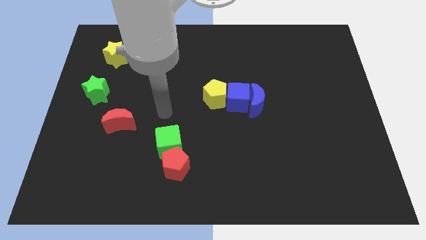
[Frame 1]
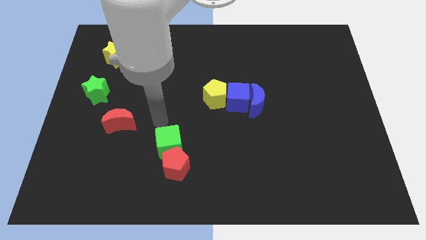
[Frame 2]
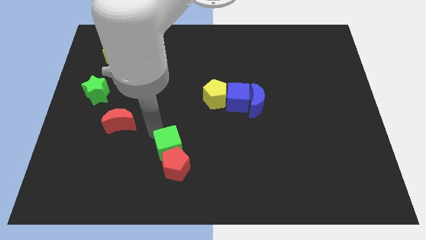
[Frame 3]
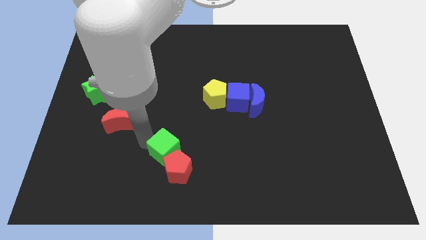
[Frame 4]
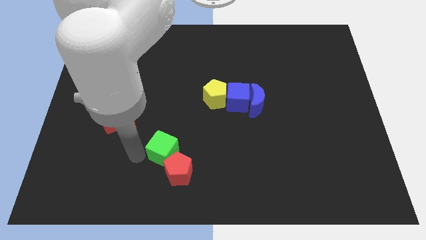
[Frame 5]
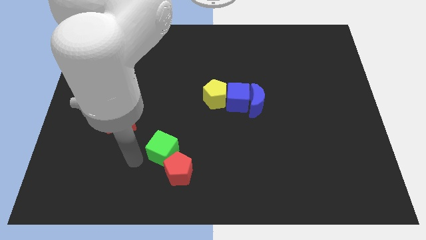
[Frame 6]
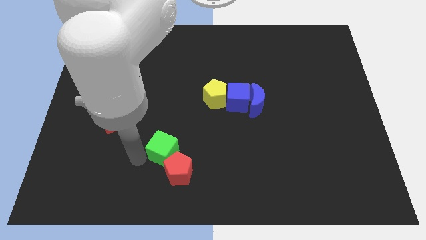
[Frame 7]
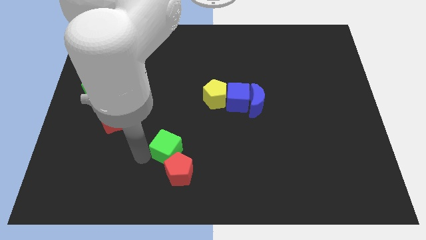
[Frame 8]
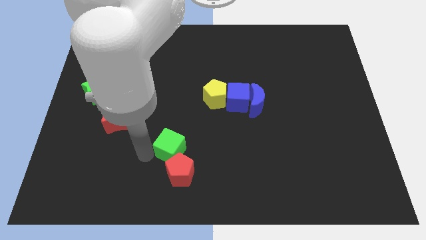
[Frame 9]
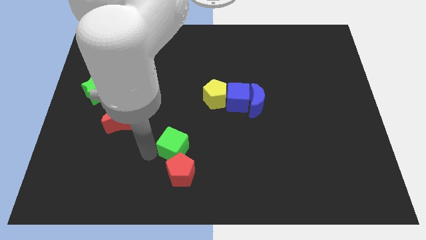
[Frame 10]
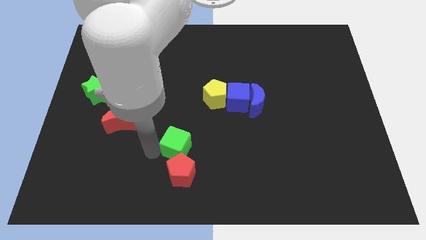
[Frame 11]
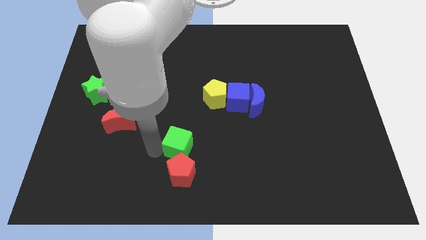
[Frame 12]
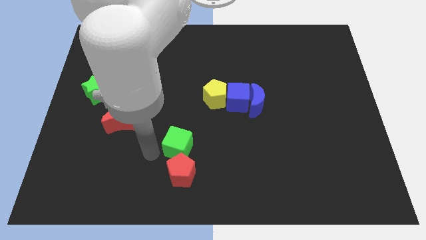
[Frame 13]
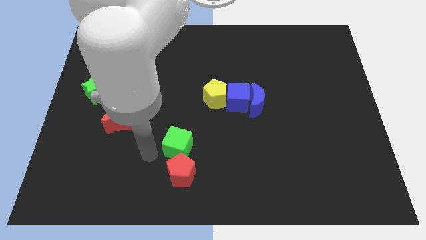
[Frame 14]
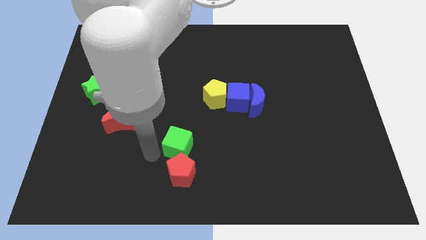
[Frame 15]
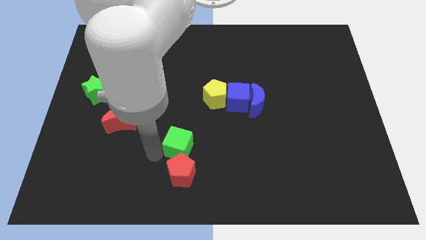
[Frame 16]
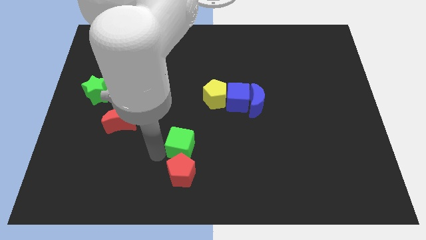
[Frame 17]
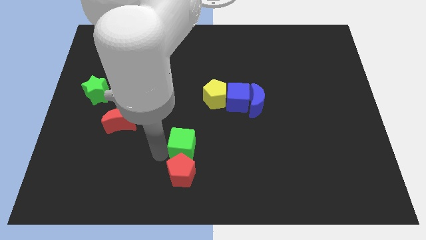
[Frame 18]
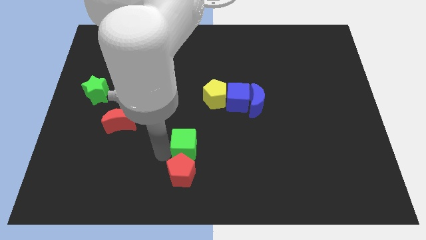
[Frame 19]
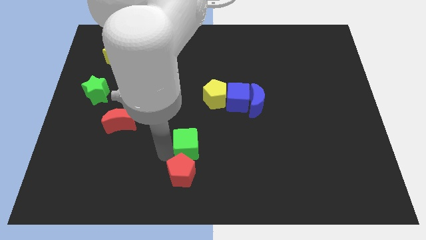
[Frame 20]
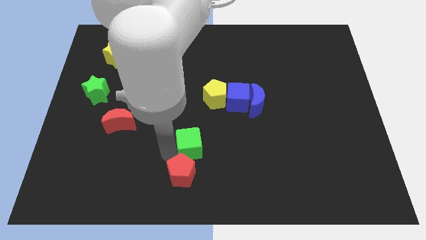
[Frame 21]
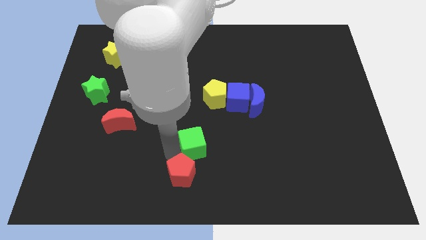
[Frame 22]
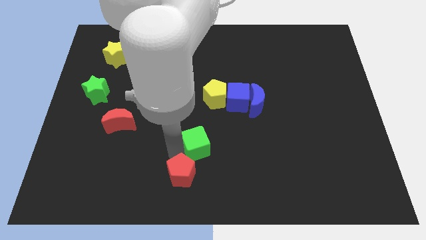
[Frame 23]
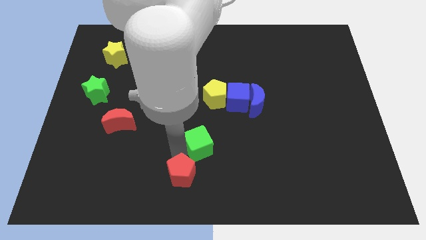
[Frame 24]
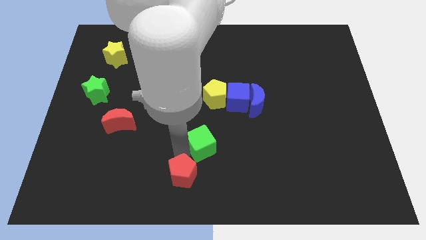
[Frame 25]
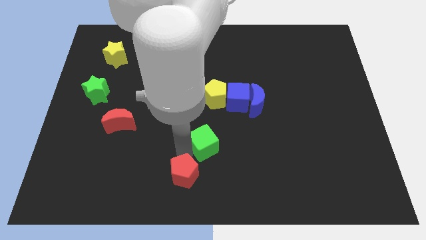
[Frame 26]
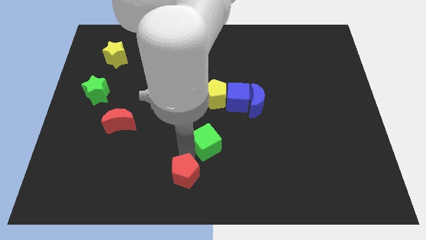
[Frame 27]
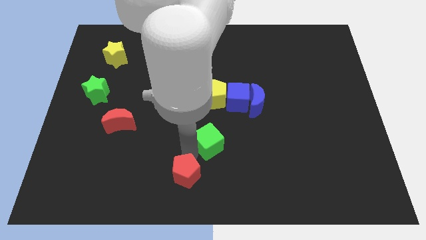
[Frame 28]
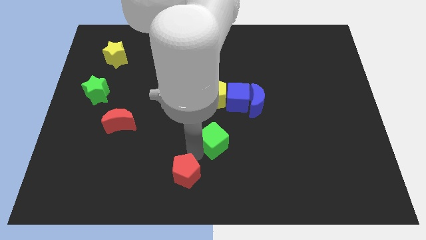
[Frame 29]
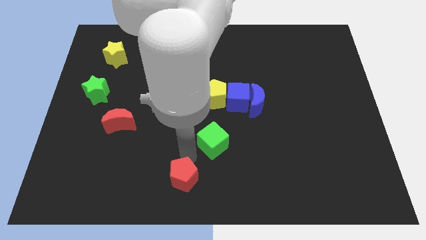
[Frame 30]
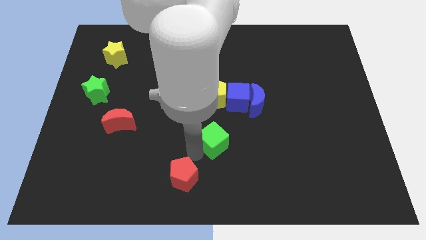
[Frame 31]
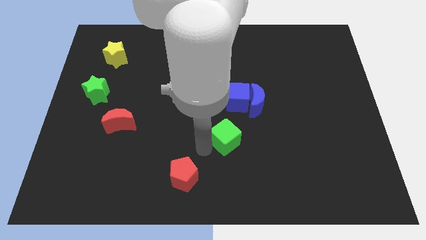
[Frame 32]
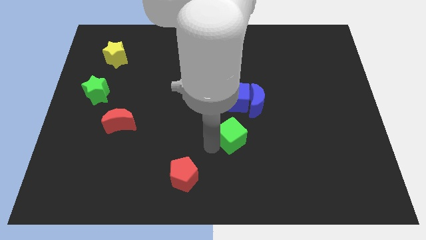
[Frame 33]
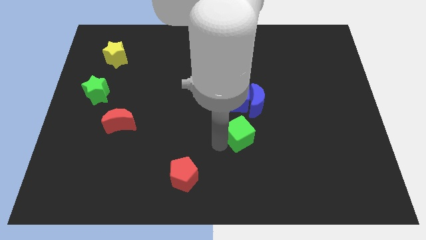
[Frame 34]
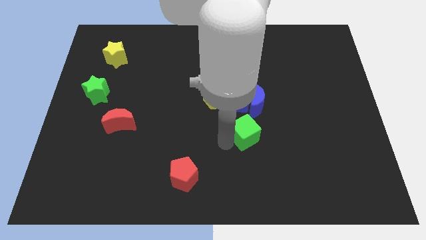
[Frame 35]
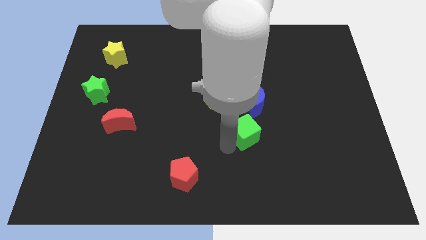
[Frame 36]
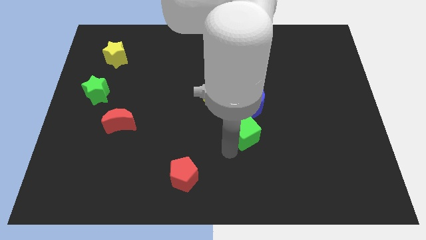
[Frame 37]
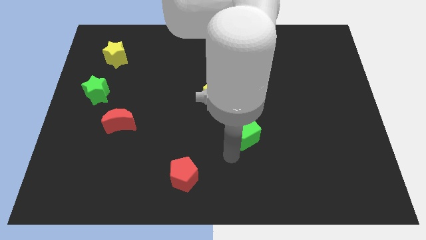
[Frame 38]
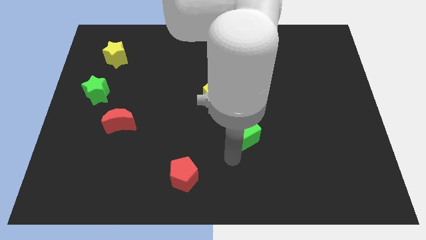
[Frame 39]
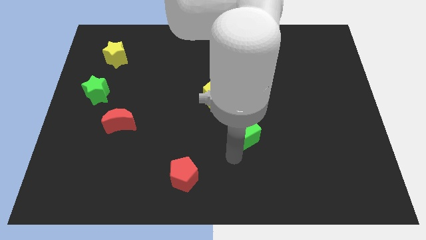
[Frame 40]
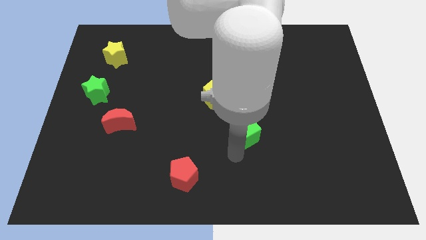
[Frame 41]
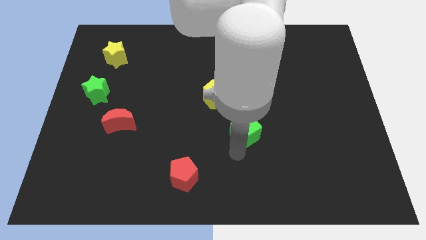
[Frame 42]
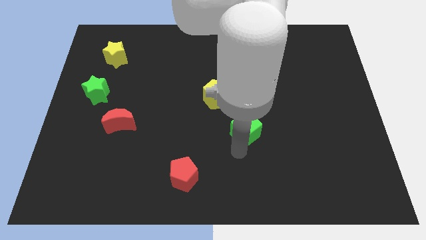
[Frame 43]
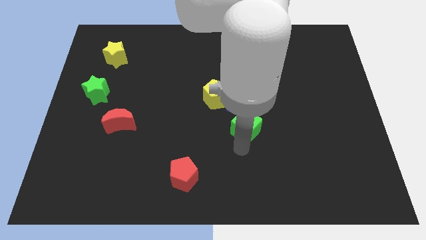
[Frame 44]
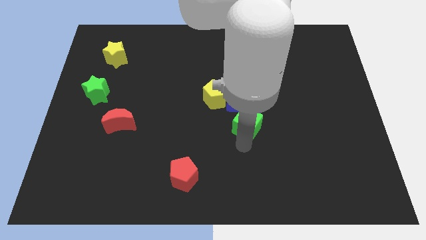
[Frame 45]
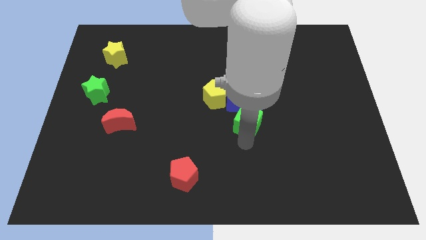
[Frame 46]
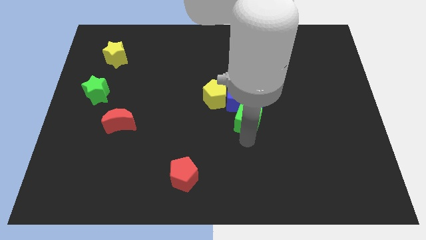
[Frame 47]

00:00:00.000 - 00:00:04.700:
slide the green cube towards the blue moon

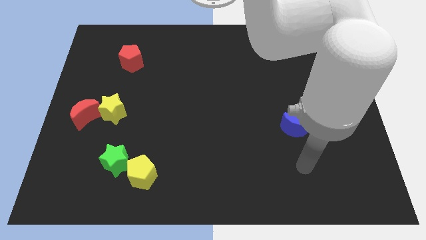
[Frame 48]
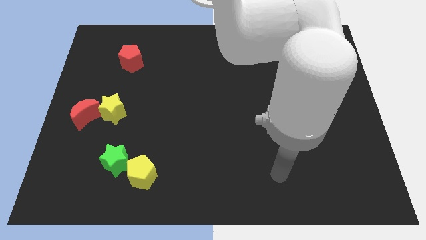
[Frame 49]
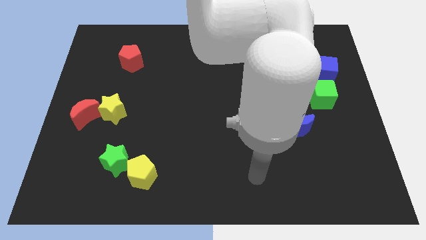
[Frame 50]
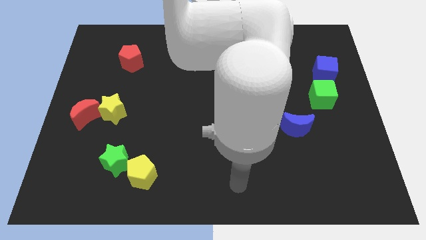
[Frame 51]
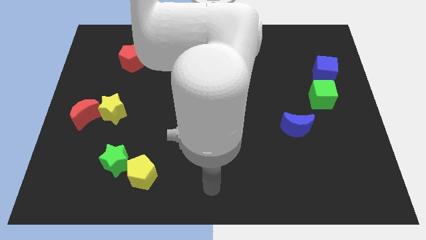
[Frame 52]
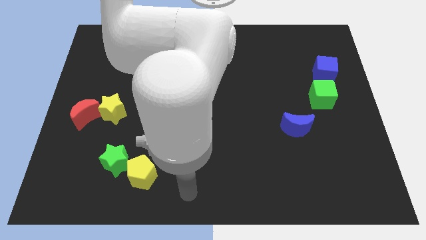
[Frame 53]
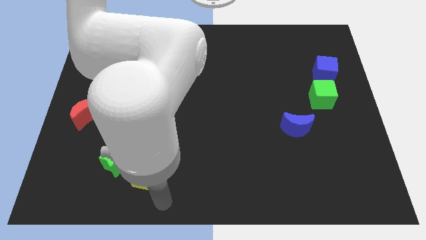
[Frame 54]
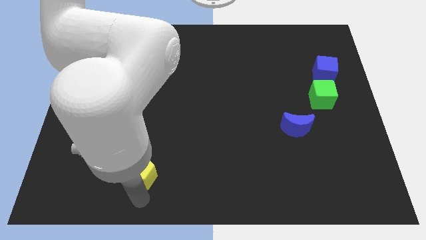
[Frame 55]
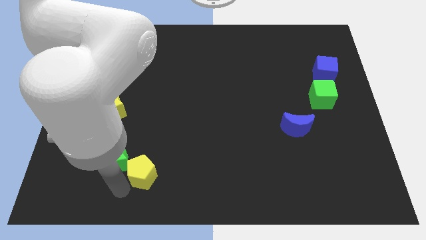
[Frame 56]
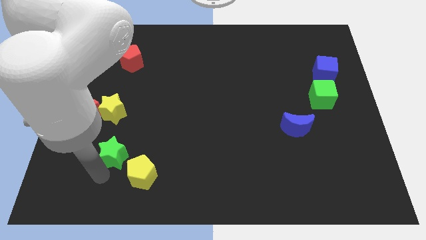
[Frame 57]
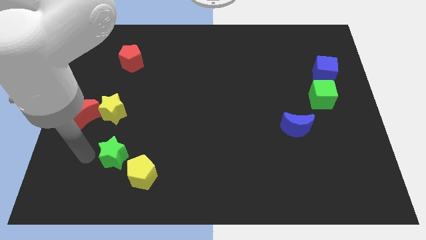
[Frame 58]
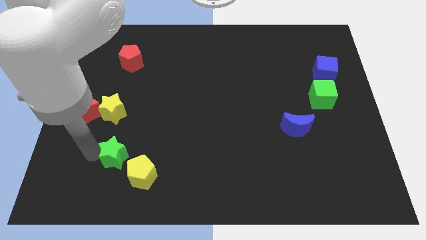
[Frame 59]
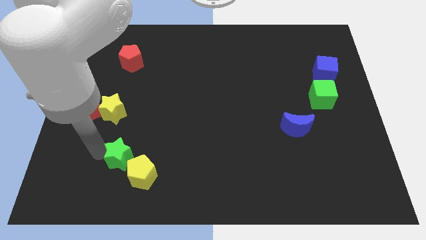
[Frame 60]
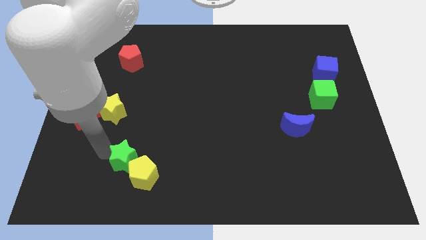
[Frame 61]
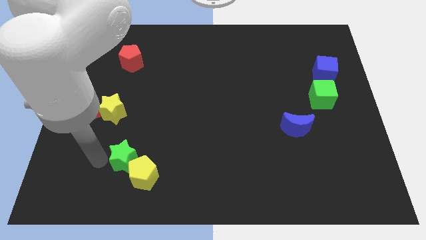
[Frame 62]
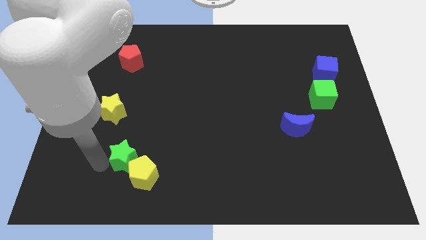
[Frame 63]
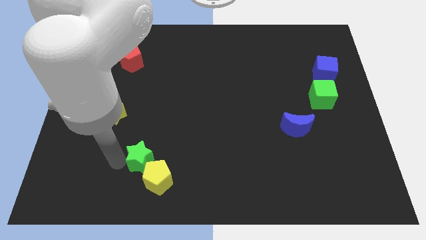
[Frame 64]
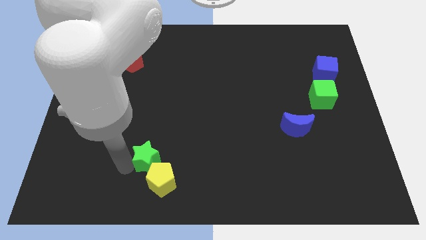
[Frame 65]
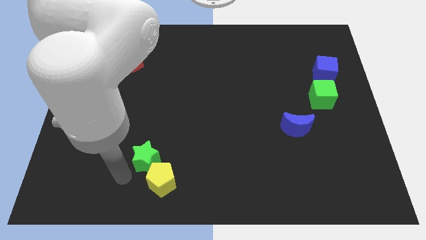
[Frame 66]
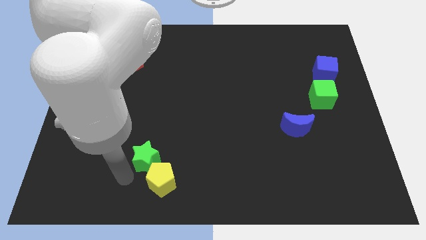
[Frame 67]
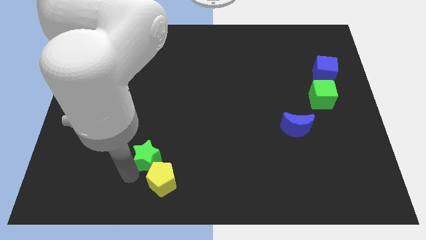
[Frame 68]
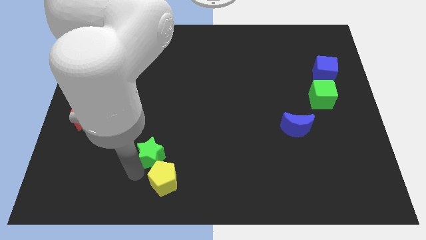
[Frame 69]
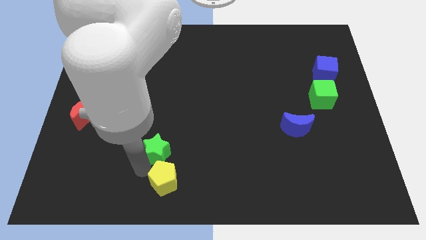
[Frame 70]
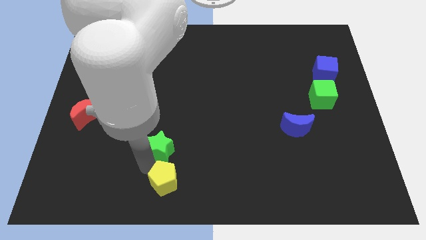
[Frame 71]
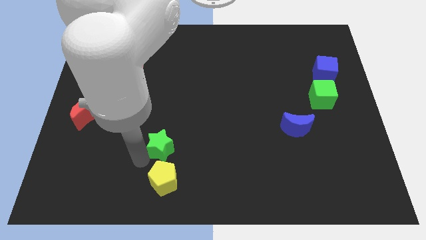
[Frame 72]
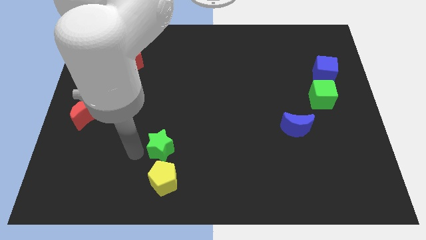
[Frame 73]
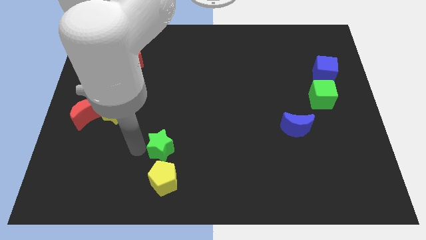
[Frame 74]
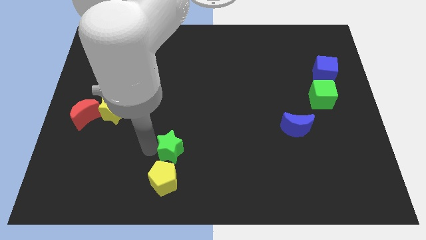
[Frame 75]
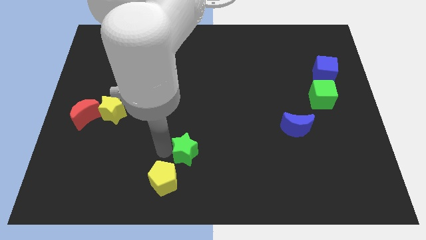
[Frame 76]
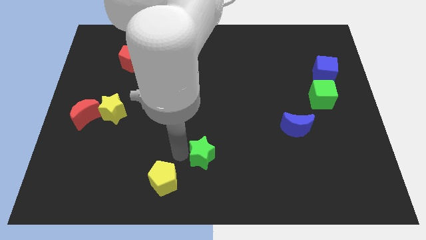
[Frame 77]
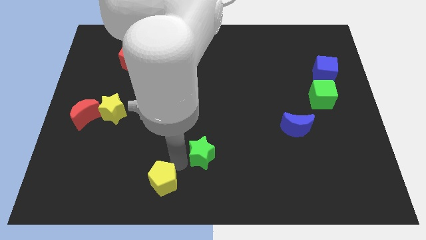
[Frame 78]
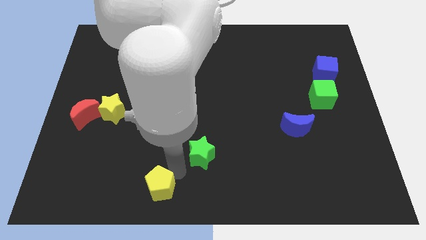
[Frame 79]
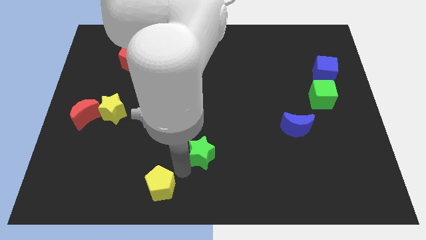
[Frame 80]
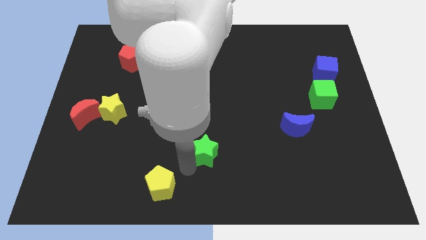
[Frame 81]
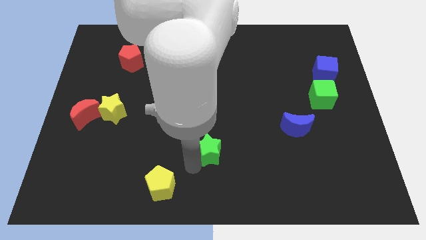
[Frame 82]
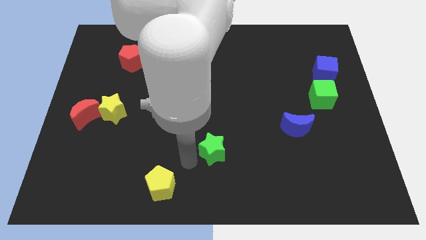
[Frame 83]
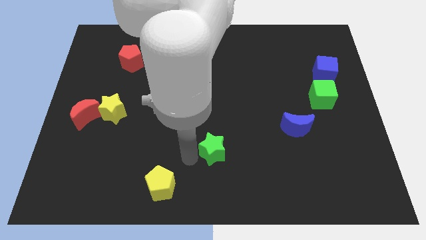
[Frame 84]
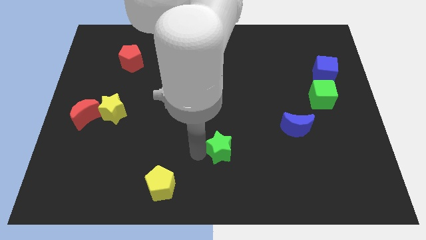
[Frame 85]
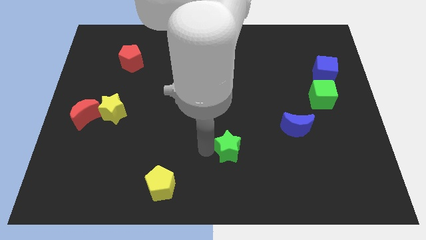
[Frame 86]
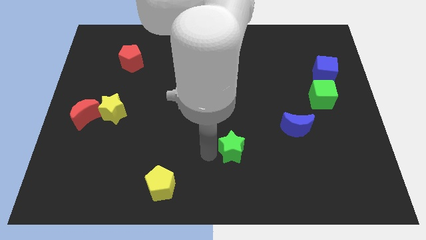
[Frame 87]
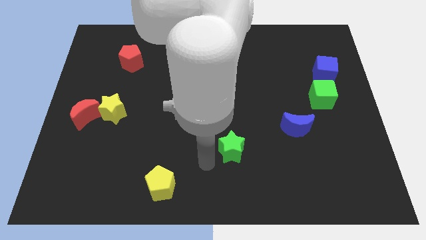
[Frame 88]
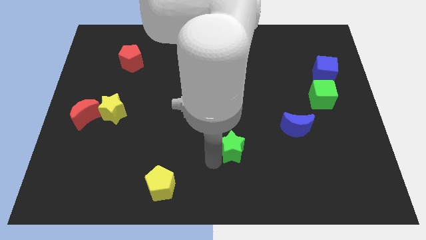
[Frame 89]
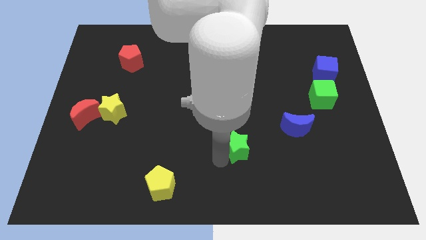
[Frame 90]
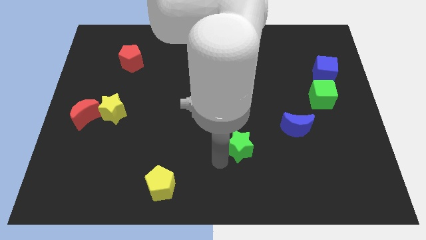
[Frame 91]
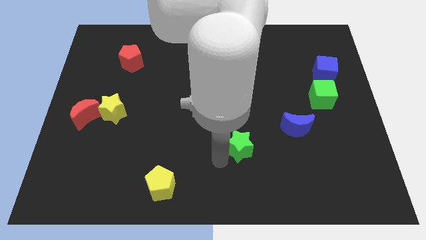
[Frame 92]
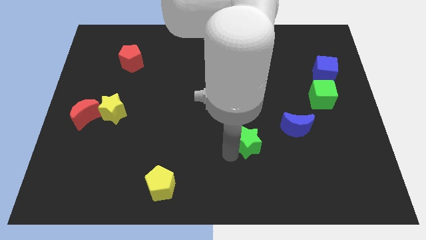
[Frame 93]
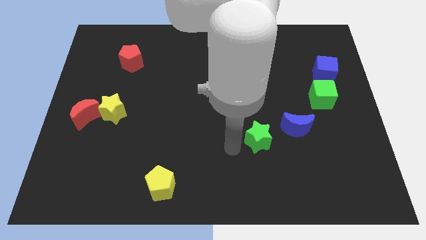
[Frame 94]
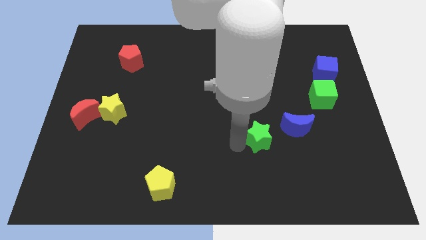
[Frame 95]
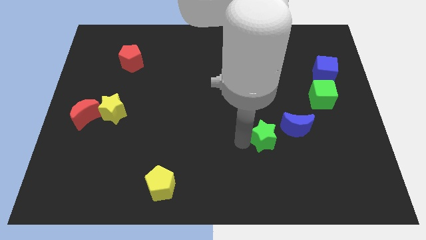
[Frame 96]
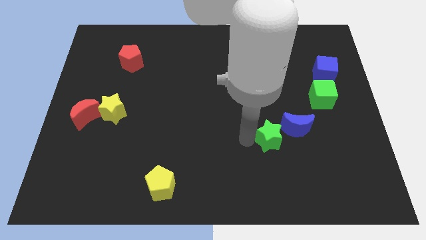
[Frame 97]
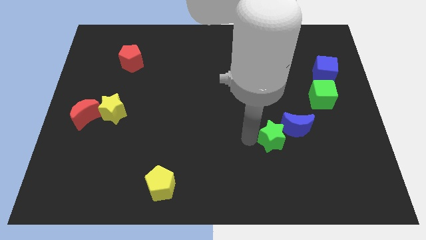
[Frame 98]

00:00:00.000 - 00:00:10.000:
put the green star to the blue moon
